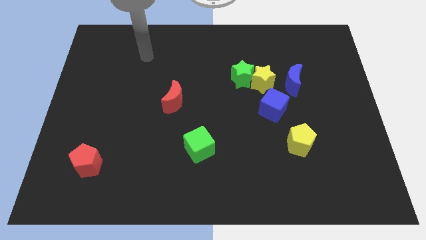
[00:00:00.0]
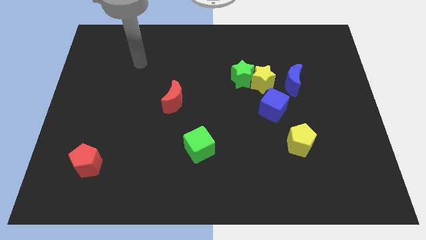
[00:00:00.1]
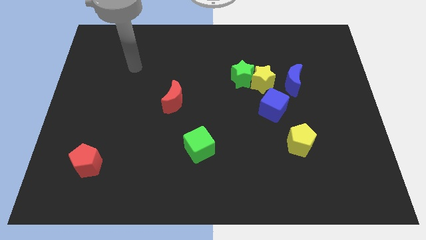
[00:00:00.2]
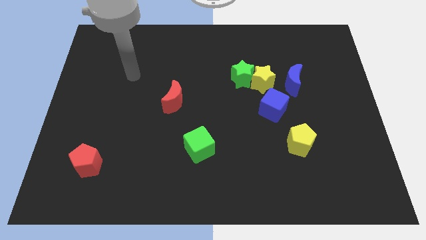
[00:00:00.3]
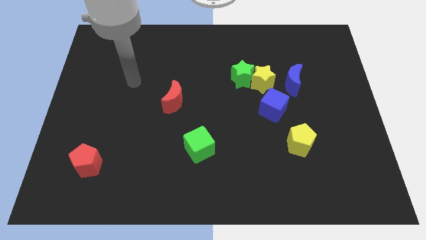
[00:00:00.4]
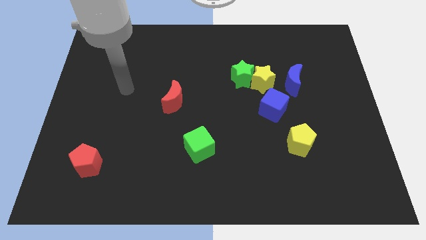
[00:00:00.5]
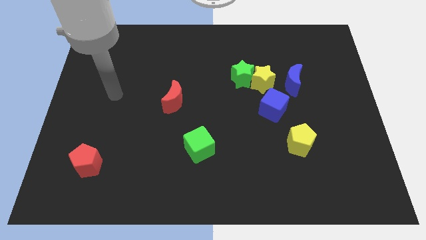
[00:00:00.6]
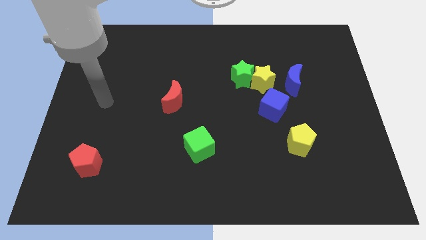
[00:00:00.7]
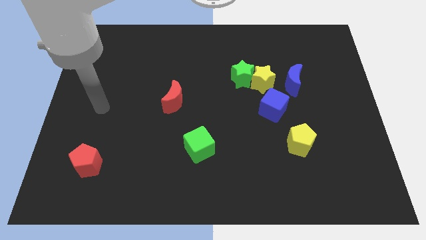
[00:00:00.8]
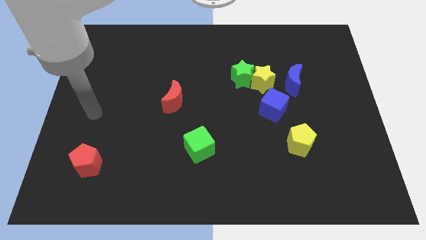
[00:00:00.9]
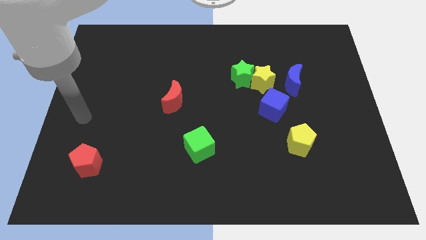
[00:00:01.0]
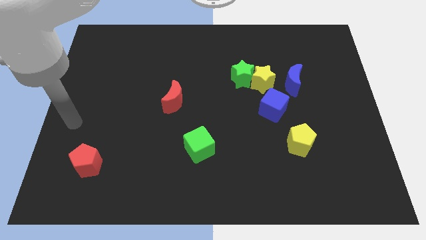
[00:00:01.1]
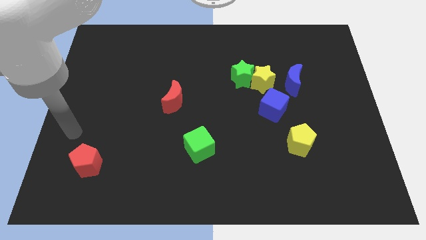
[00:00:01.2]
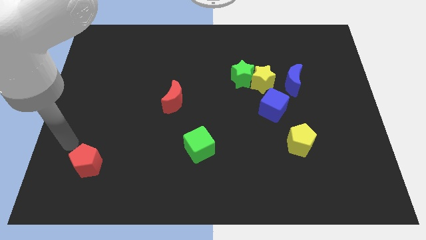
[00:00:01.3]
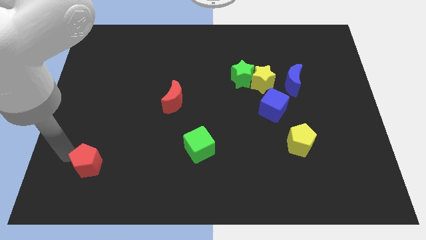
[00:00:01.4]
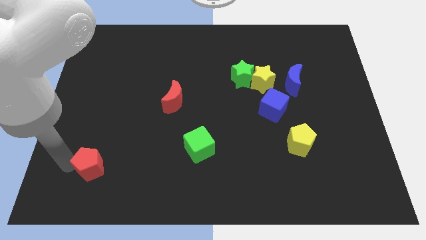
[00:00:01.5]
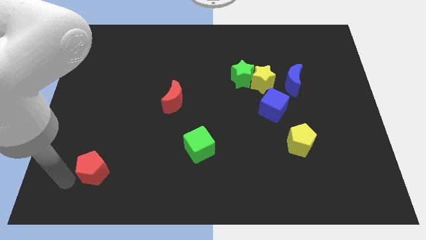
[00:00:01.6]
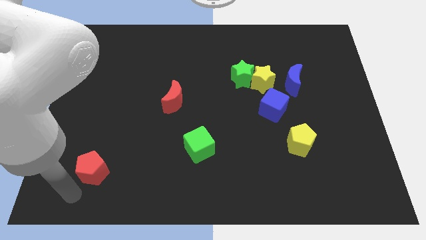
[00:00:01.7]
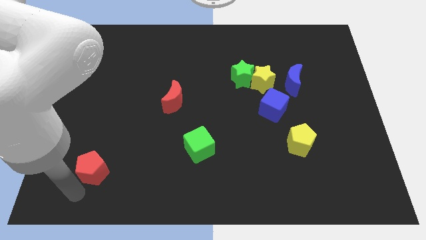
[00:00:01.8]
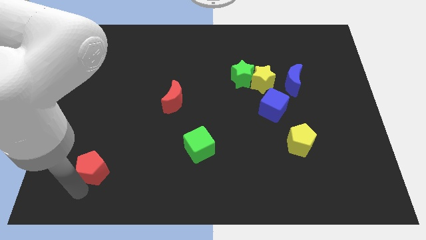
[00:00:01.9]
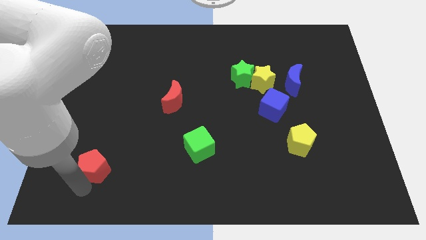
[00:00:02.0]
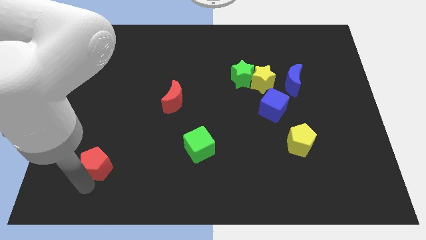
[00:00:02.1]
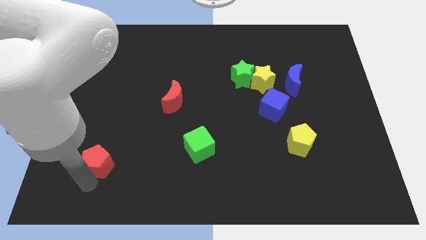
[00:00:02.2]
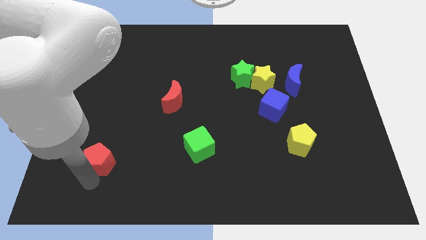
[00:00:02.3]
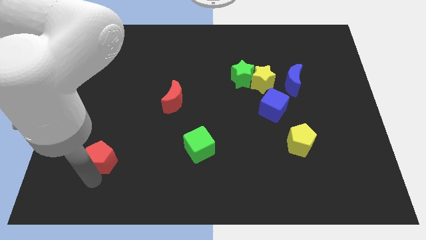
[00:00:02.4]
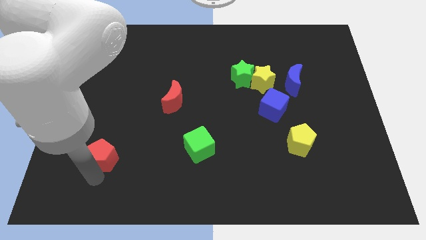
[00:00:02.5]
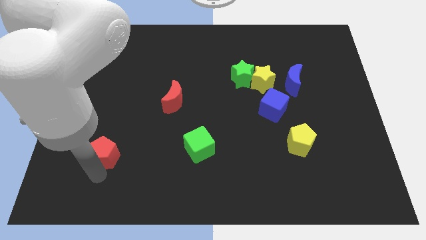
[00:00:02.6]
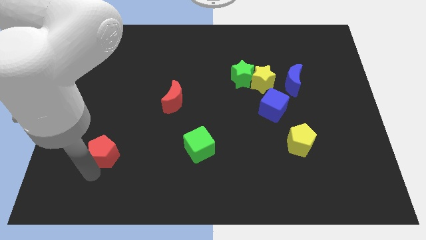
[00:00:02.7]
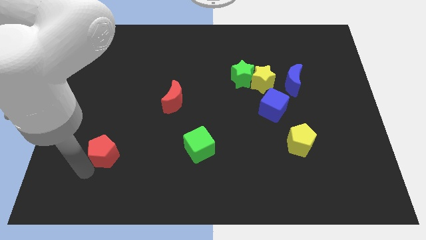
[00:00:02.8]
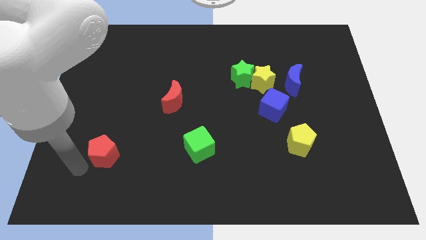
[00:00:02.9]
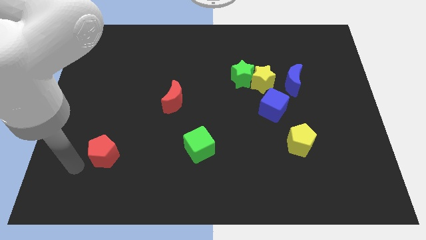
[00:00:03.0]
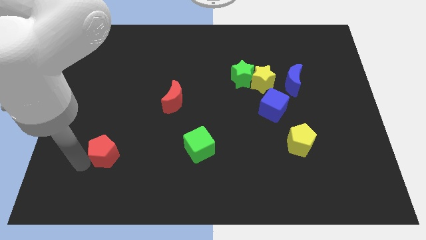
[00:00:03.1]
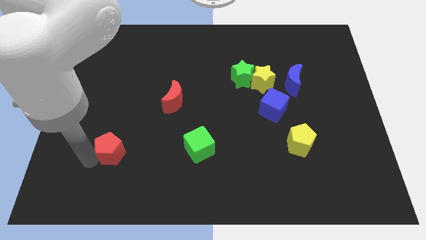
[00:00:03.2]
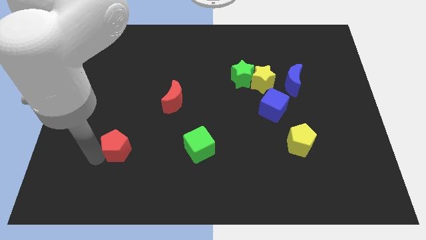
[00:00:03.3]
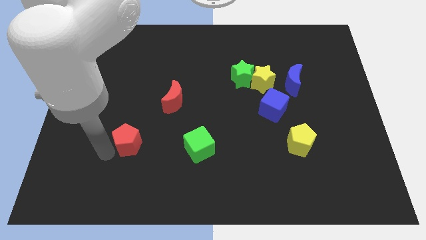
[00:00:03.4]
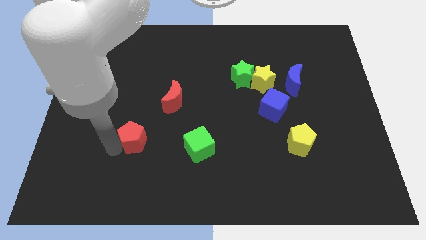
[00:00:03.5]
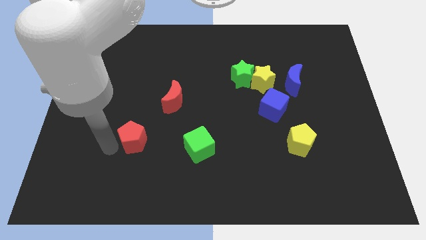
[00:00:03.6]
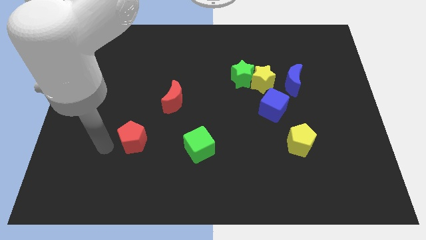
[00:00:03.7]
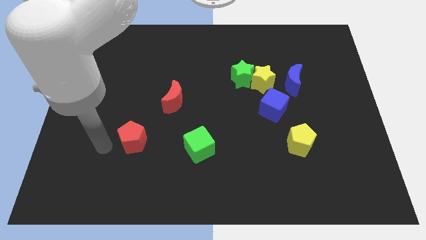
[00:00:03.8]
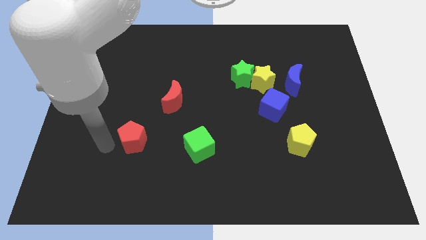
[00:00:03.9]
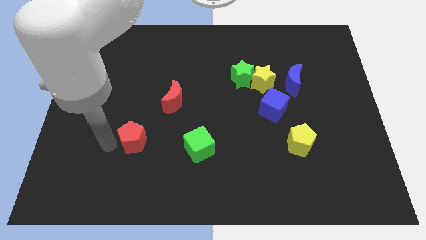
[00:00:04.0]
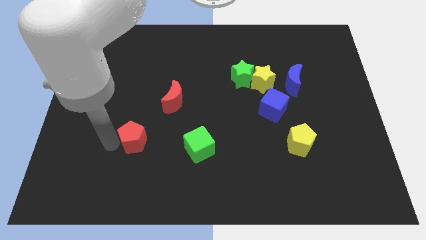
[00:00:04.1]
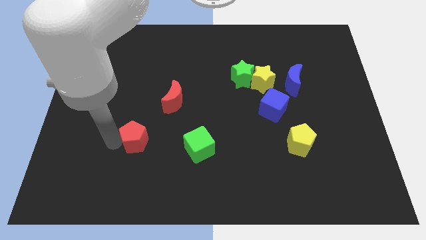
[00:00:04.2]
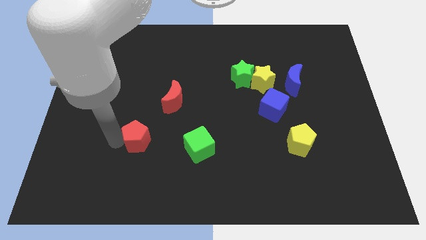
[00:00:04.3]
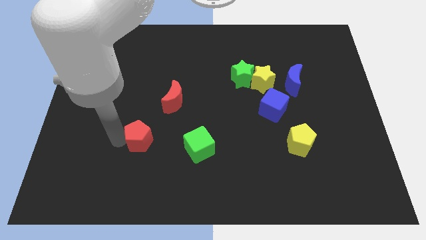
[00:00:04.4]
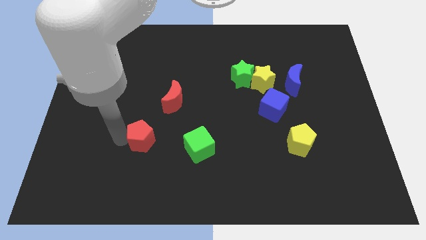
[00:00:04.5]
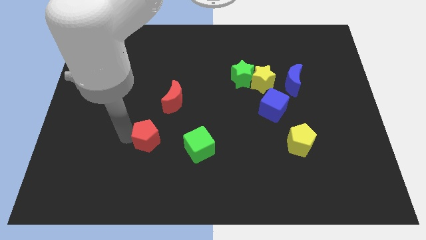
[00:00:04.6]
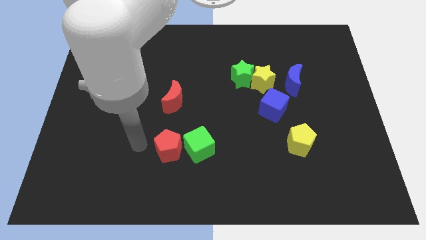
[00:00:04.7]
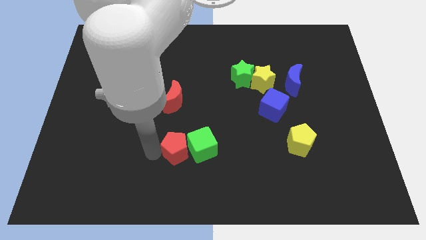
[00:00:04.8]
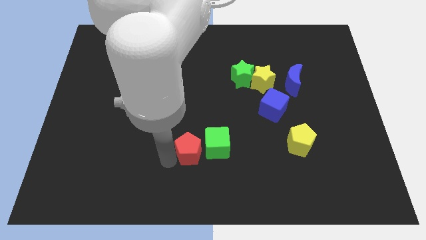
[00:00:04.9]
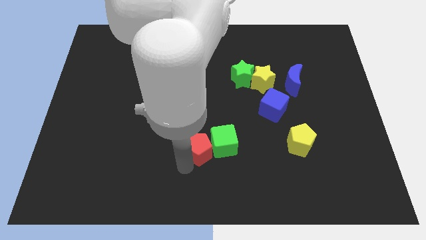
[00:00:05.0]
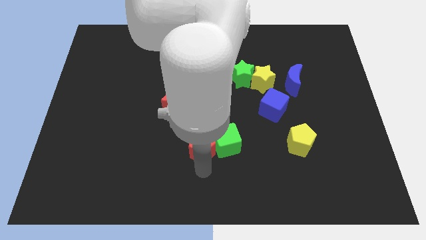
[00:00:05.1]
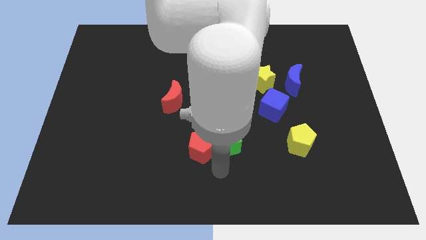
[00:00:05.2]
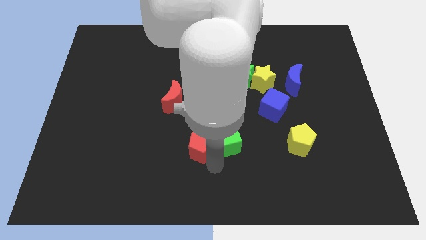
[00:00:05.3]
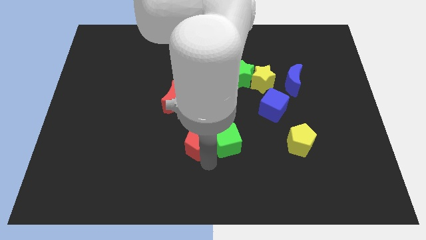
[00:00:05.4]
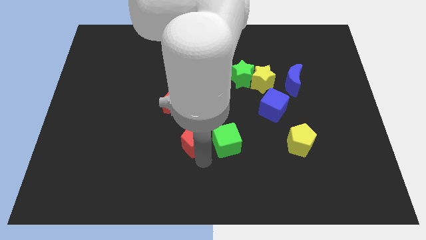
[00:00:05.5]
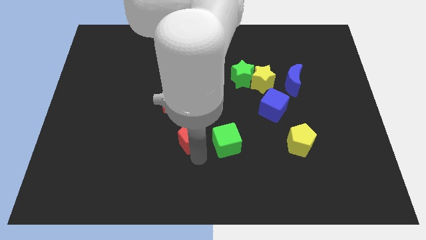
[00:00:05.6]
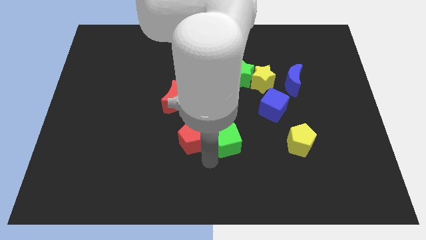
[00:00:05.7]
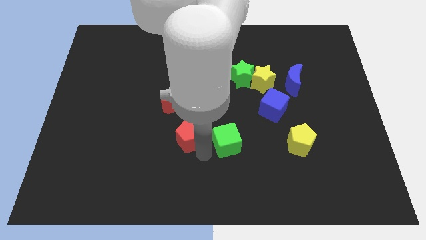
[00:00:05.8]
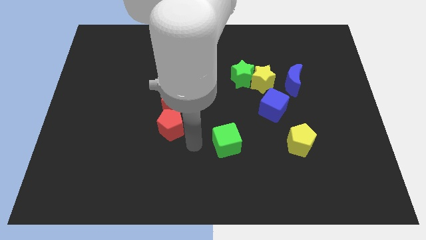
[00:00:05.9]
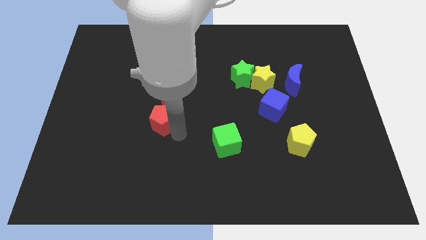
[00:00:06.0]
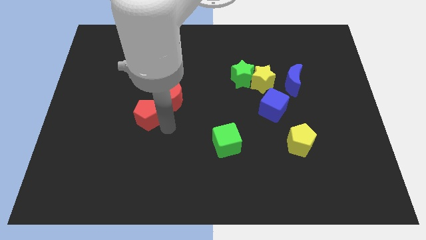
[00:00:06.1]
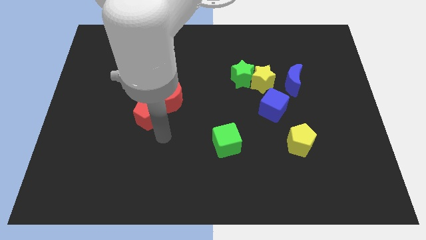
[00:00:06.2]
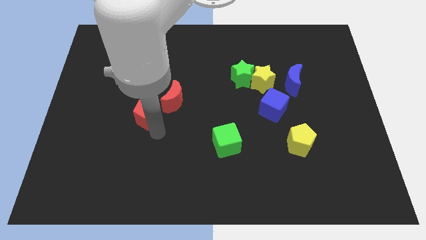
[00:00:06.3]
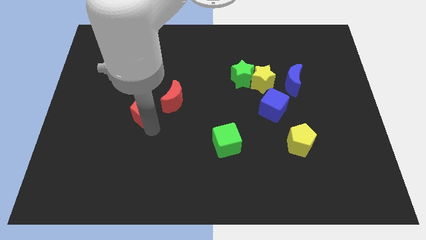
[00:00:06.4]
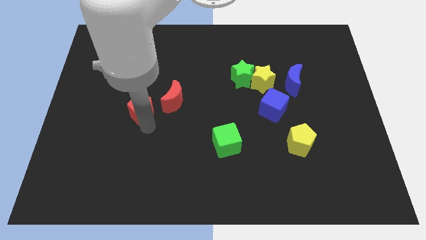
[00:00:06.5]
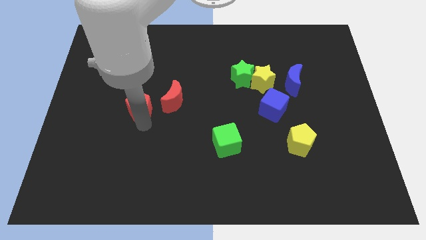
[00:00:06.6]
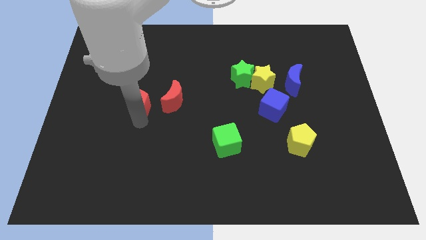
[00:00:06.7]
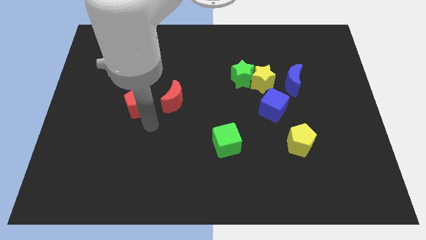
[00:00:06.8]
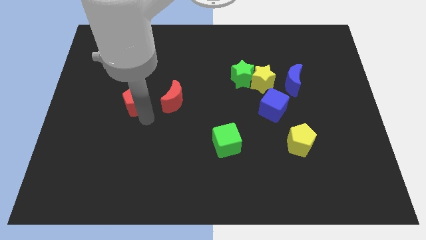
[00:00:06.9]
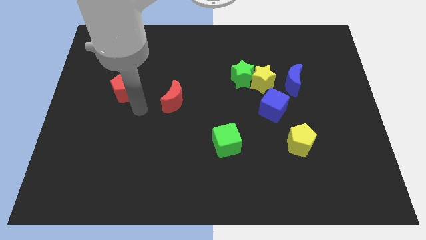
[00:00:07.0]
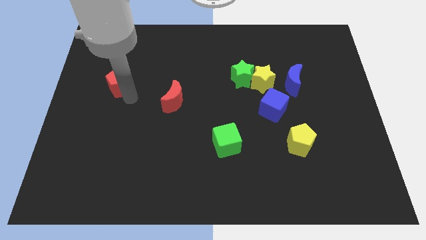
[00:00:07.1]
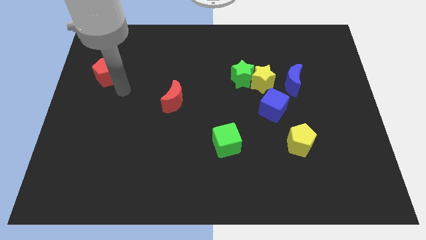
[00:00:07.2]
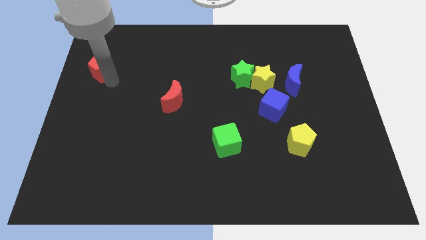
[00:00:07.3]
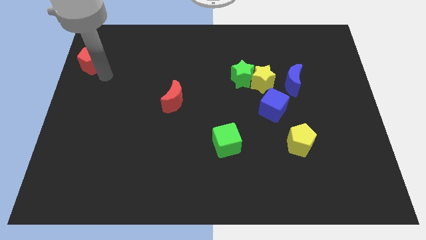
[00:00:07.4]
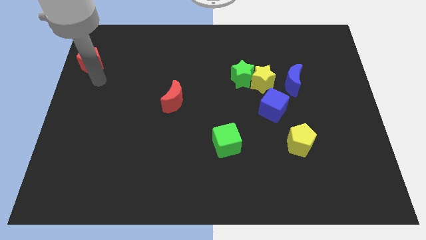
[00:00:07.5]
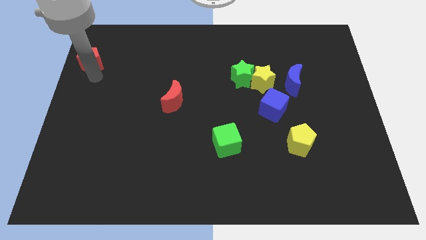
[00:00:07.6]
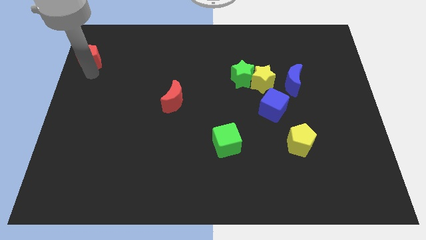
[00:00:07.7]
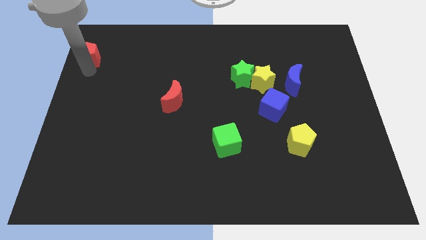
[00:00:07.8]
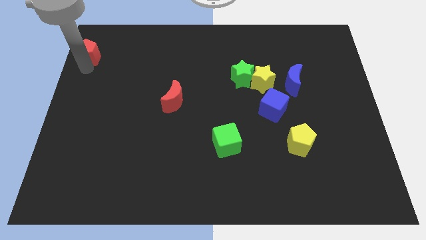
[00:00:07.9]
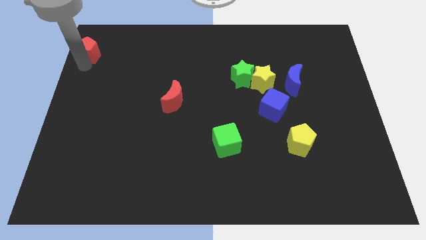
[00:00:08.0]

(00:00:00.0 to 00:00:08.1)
put the red pentagon to the top left
